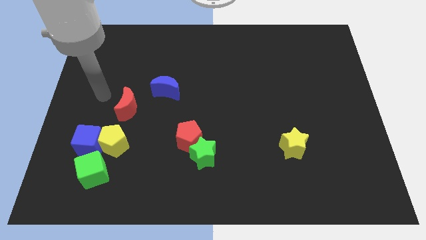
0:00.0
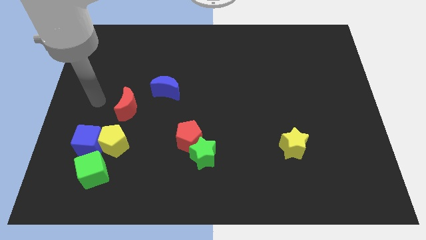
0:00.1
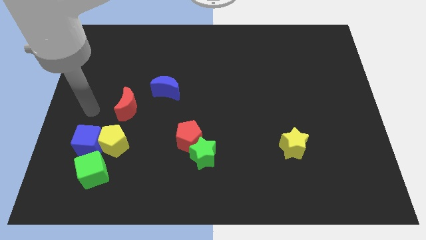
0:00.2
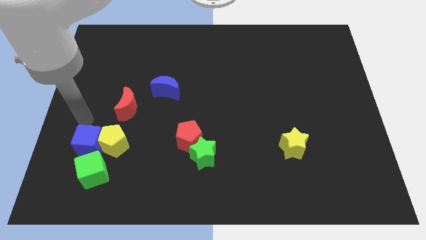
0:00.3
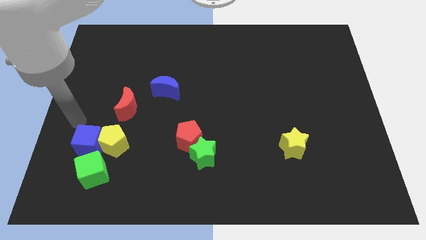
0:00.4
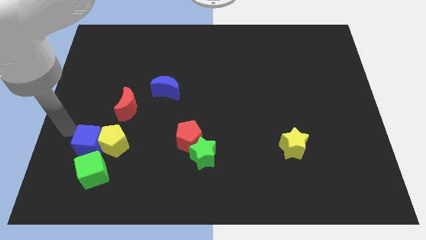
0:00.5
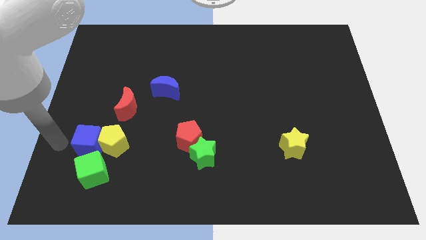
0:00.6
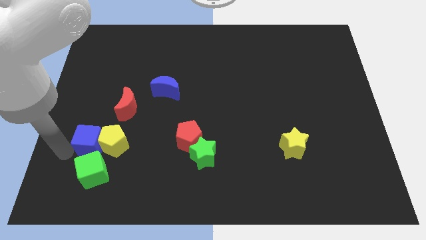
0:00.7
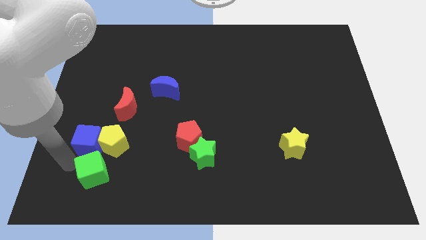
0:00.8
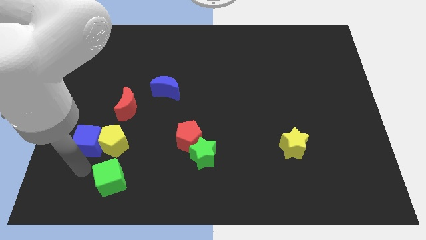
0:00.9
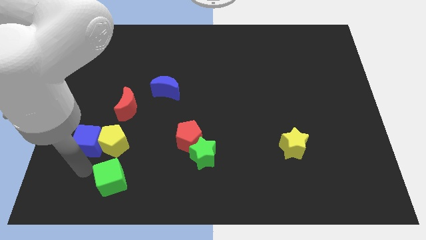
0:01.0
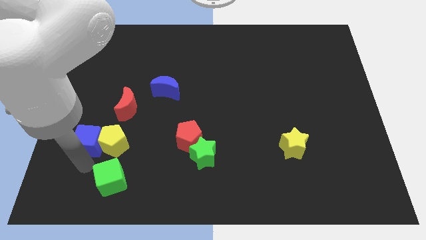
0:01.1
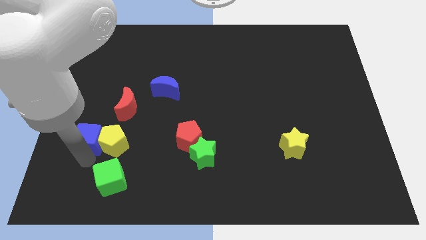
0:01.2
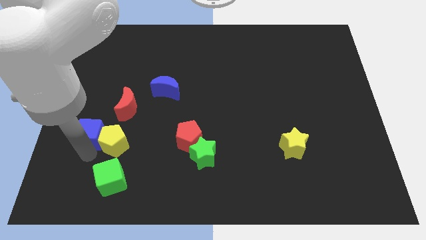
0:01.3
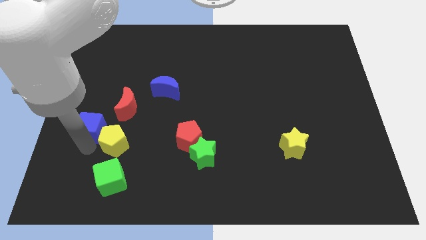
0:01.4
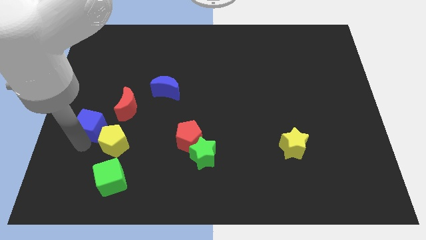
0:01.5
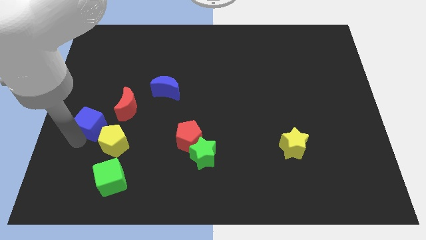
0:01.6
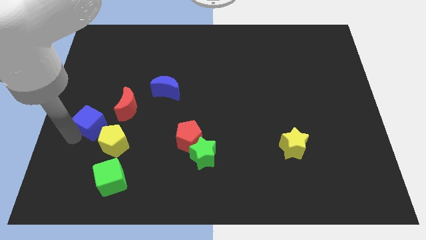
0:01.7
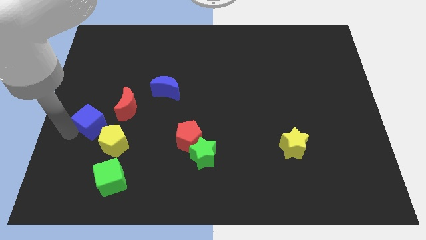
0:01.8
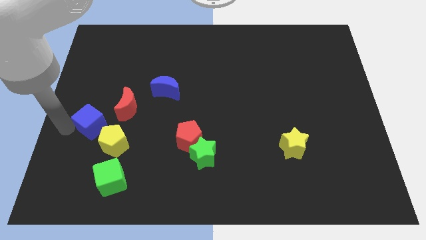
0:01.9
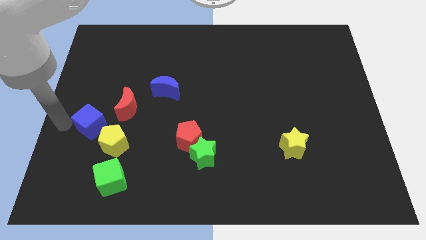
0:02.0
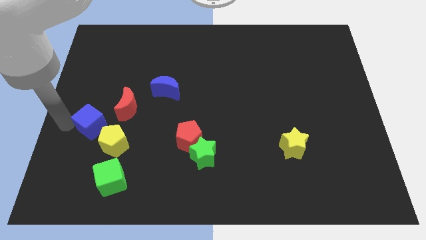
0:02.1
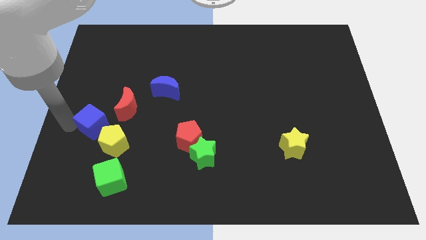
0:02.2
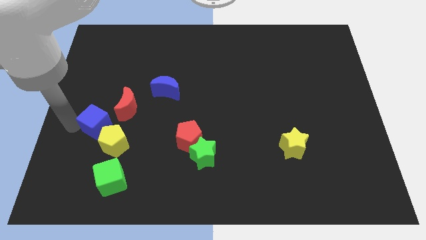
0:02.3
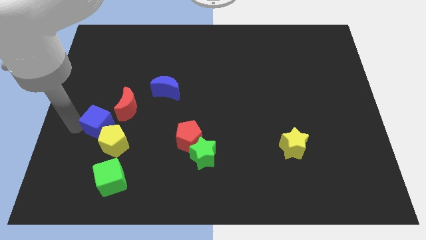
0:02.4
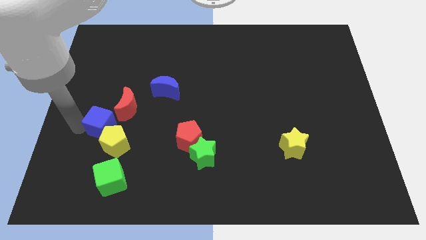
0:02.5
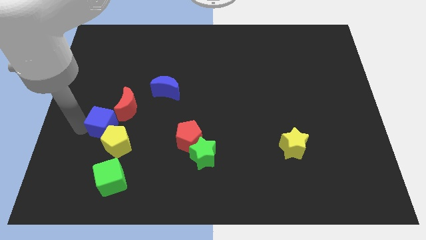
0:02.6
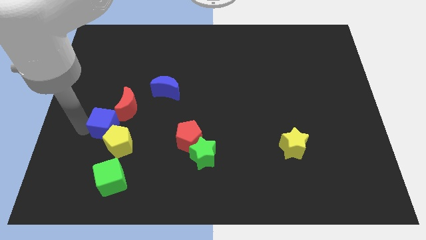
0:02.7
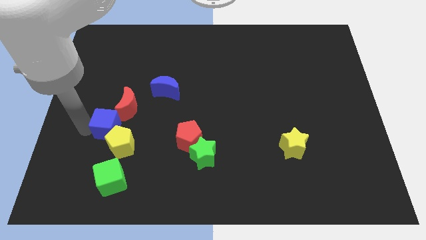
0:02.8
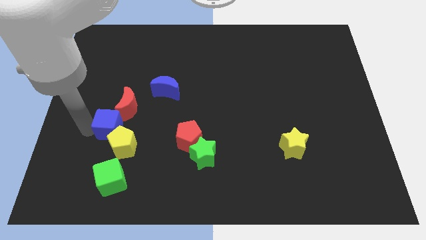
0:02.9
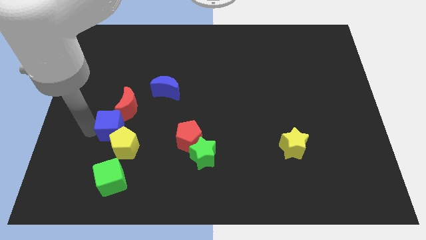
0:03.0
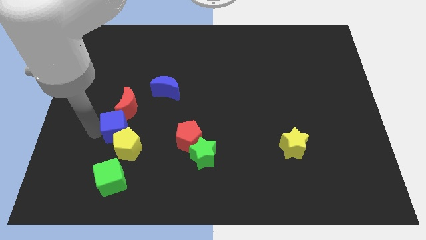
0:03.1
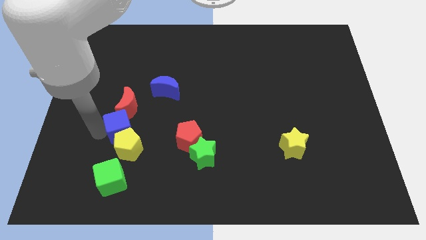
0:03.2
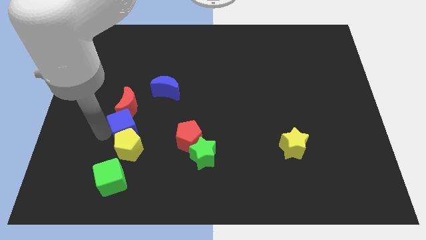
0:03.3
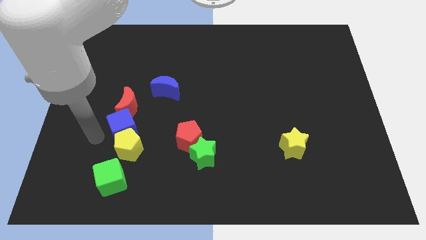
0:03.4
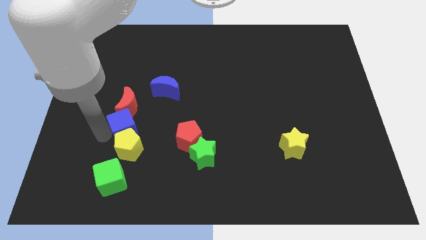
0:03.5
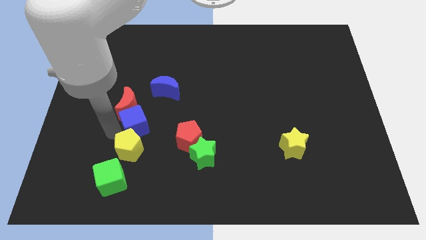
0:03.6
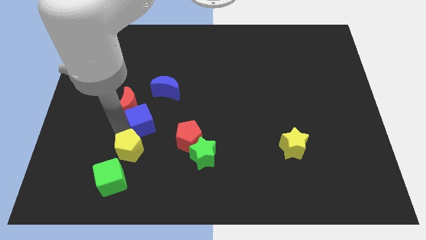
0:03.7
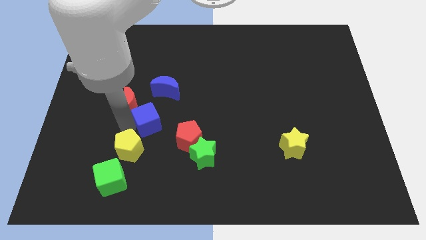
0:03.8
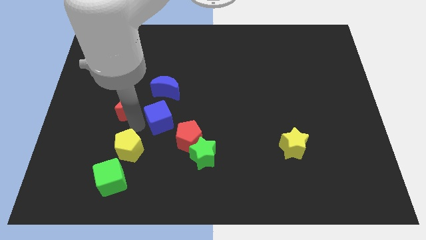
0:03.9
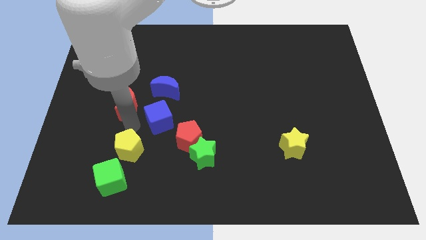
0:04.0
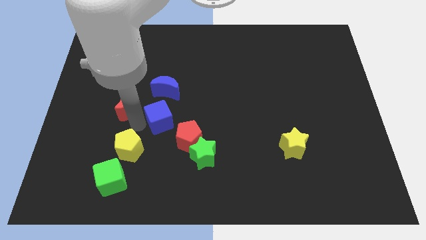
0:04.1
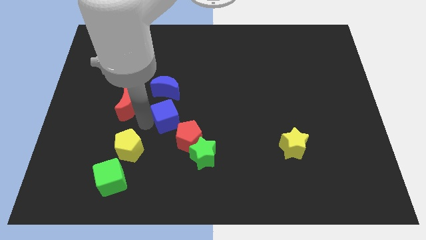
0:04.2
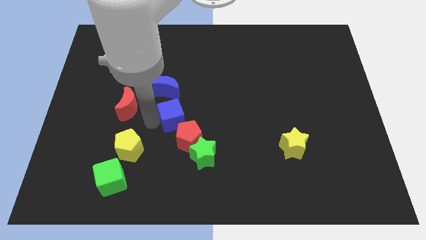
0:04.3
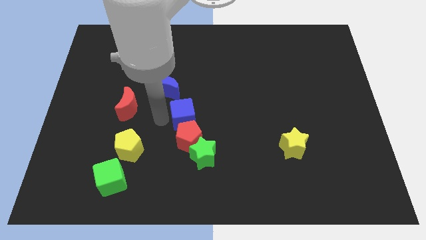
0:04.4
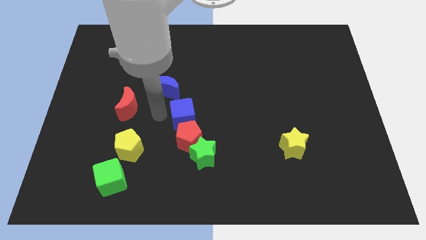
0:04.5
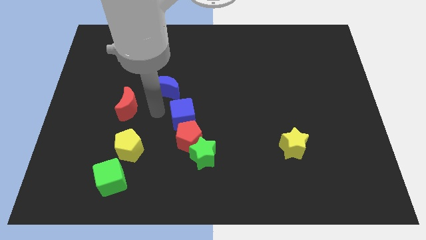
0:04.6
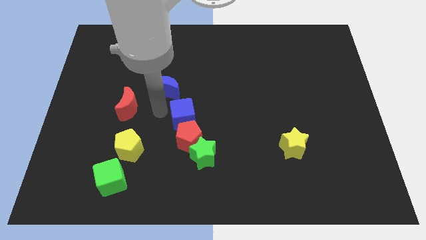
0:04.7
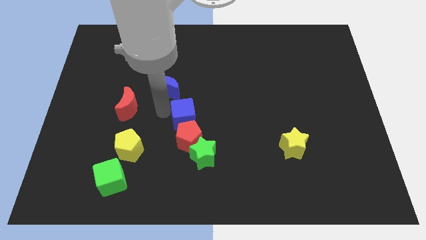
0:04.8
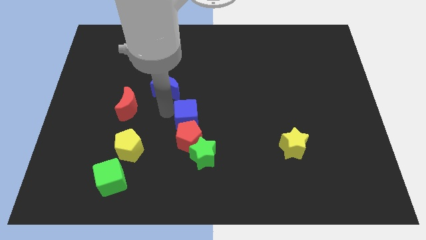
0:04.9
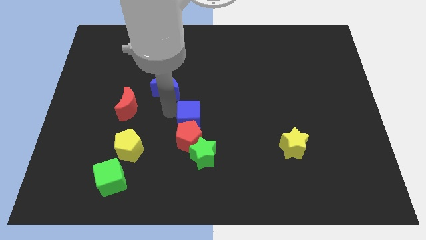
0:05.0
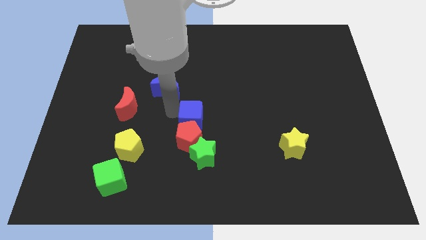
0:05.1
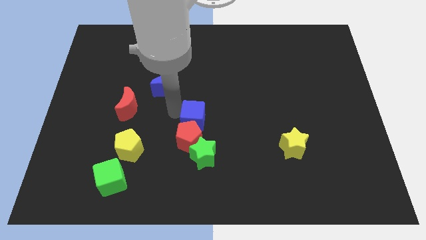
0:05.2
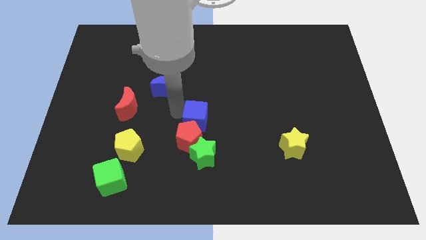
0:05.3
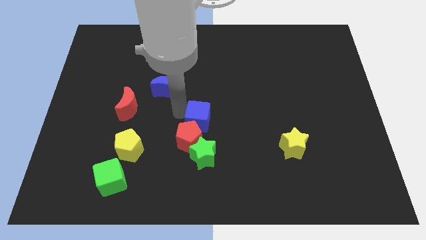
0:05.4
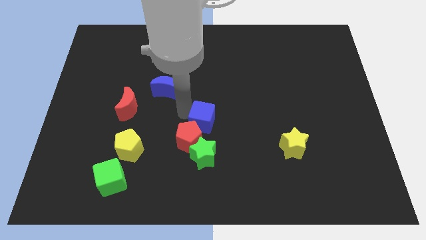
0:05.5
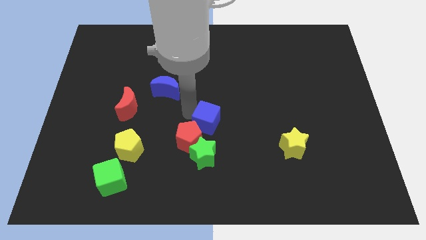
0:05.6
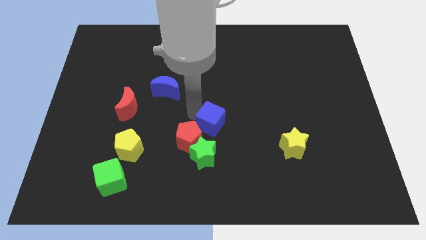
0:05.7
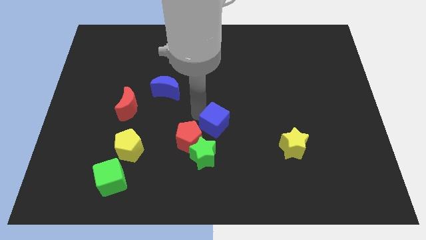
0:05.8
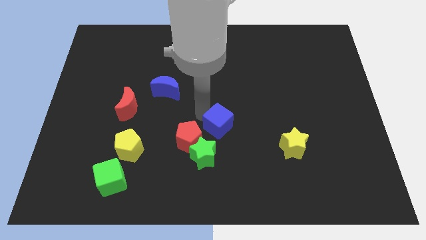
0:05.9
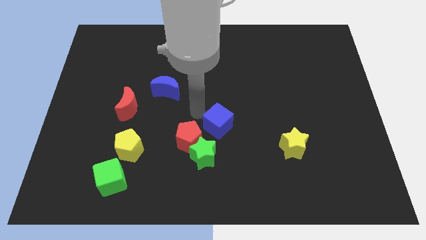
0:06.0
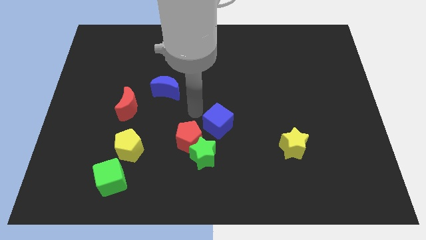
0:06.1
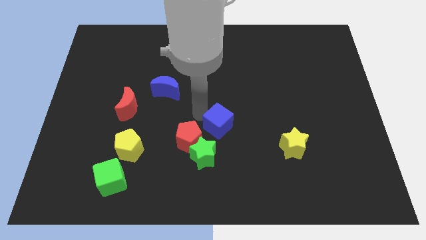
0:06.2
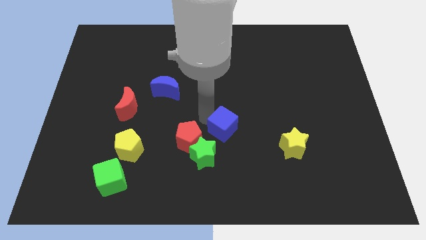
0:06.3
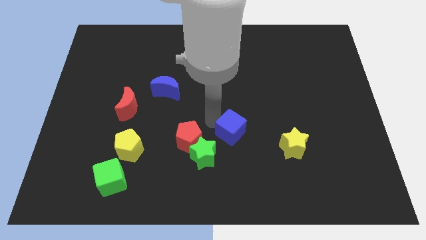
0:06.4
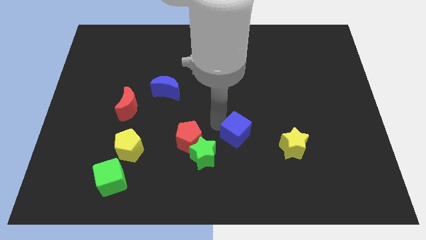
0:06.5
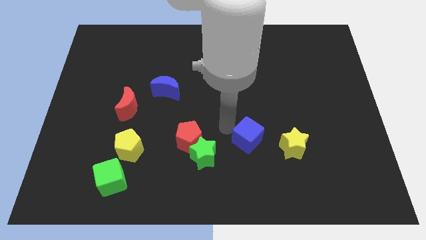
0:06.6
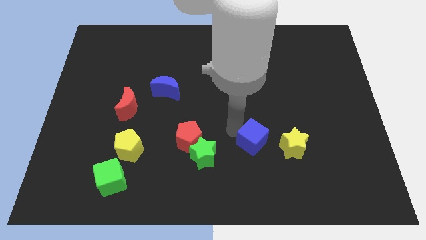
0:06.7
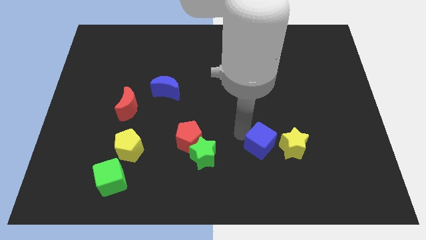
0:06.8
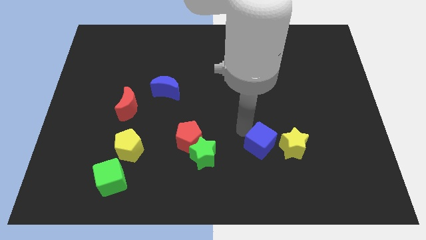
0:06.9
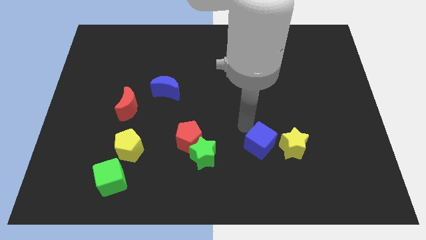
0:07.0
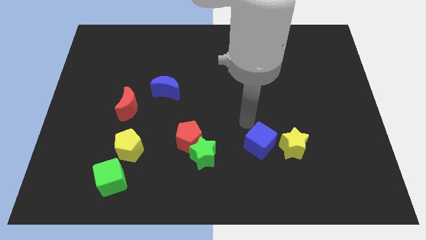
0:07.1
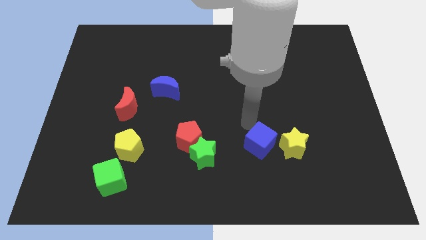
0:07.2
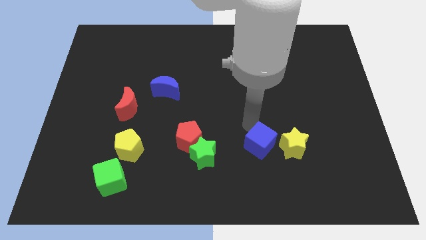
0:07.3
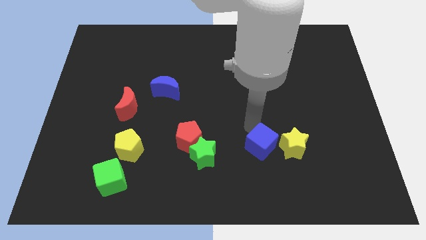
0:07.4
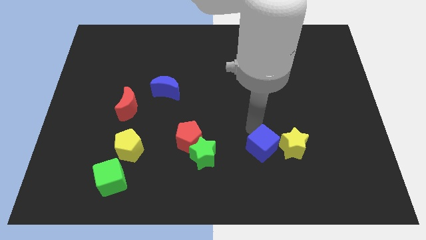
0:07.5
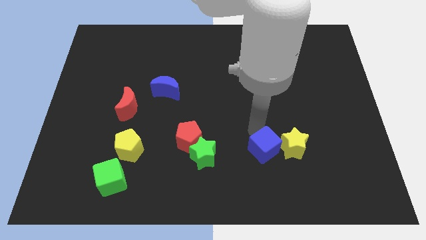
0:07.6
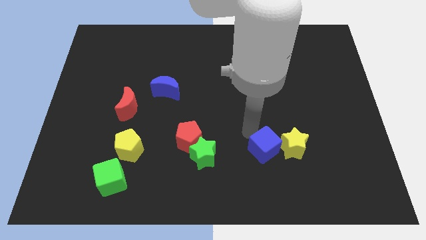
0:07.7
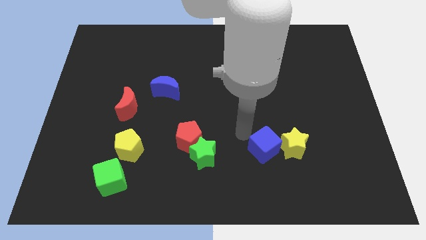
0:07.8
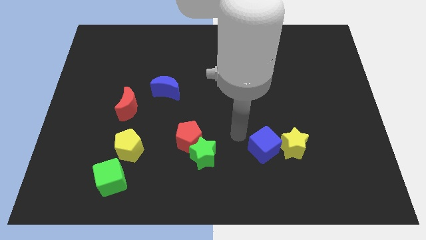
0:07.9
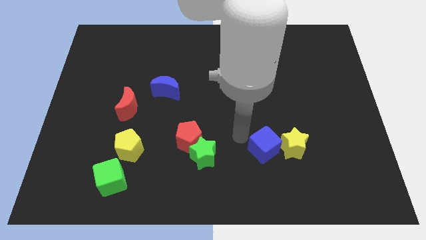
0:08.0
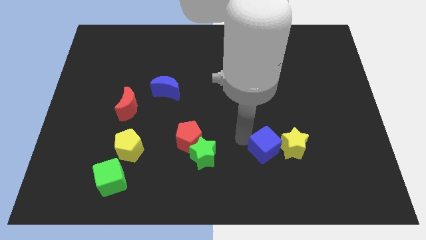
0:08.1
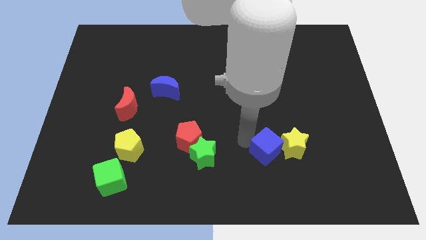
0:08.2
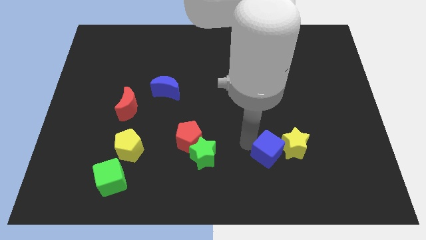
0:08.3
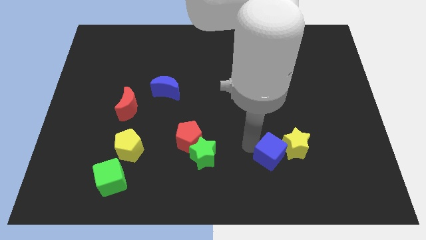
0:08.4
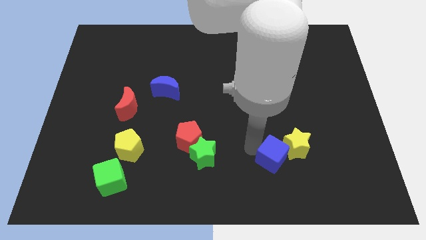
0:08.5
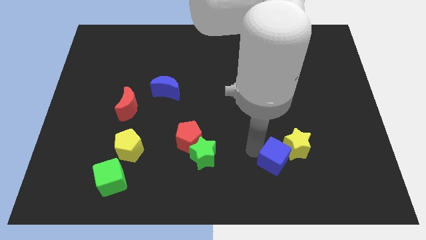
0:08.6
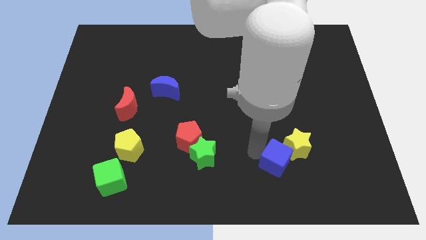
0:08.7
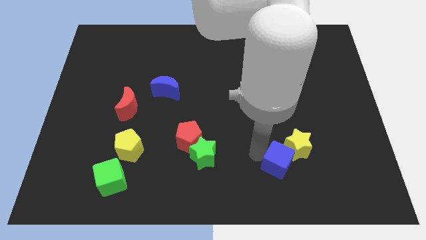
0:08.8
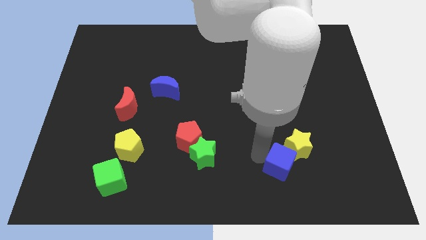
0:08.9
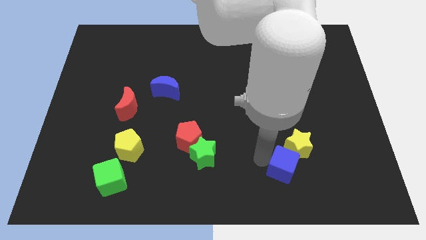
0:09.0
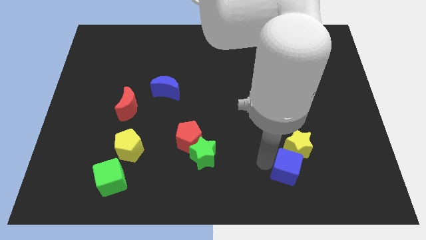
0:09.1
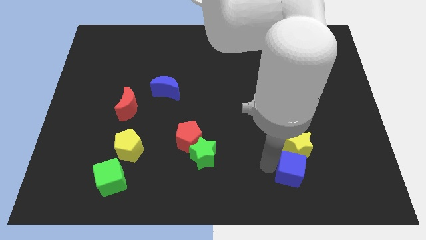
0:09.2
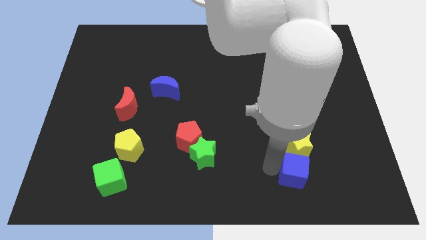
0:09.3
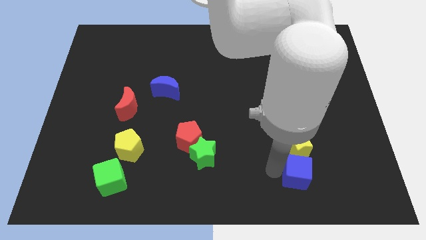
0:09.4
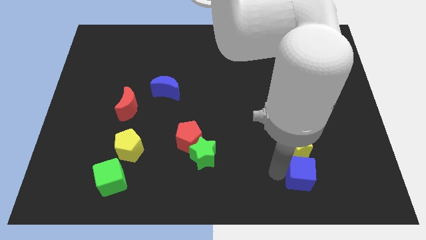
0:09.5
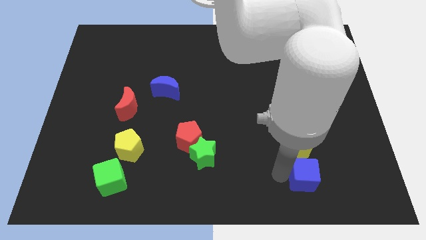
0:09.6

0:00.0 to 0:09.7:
push the blue cube to the bottom right of the yellow star
